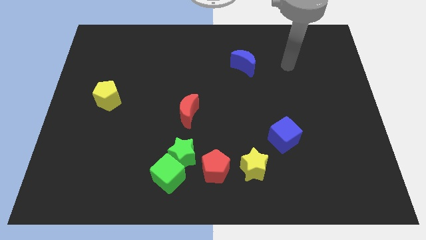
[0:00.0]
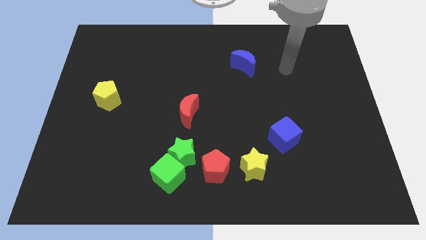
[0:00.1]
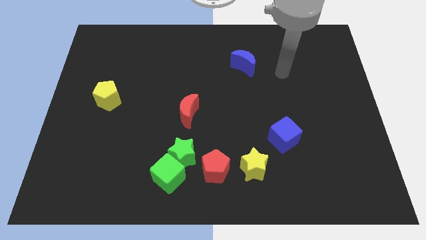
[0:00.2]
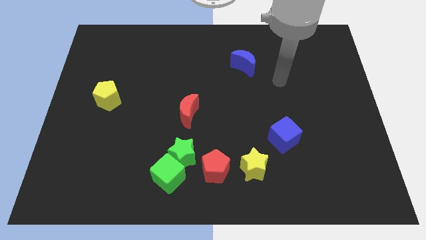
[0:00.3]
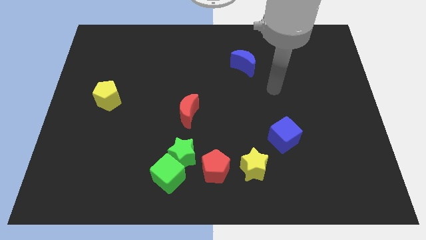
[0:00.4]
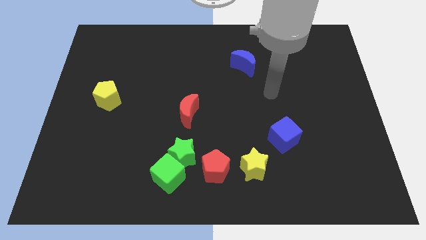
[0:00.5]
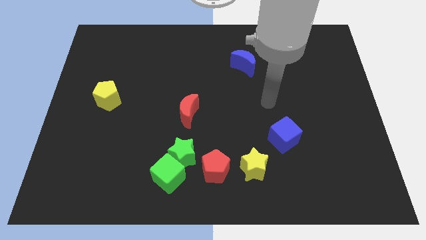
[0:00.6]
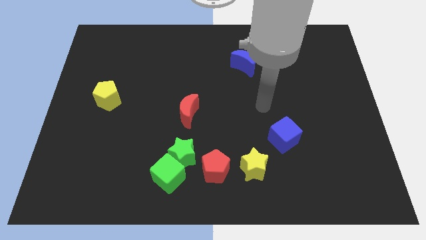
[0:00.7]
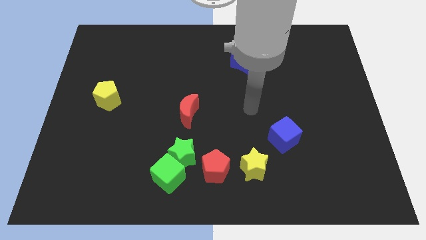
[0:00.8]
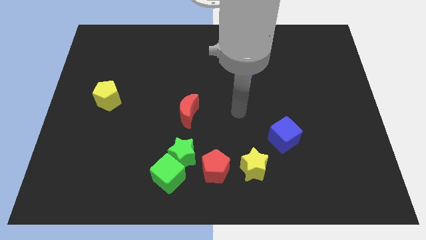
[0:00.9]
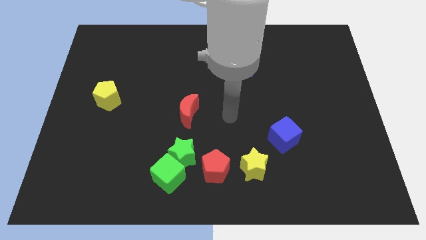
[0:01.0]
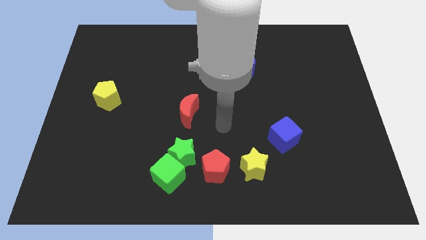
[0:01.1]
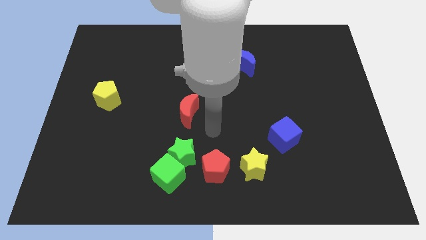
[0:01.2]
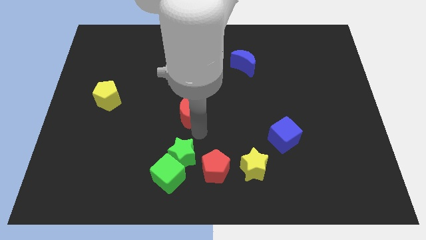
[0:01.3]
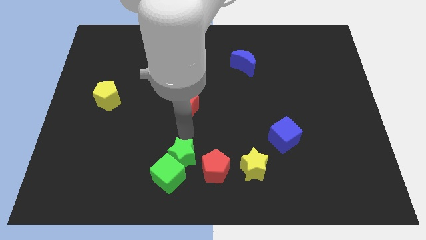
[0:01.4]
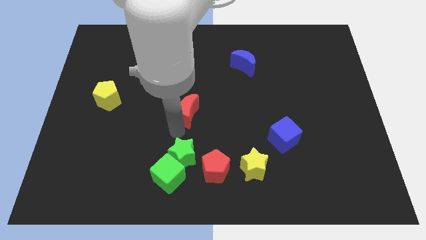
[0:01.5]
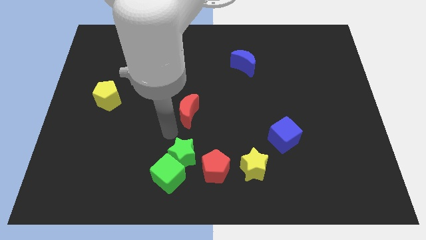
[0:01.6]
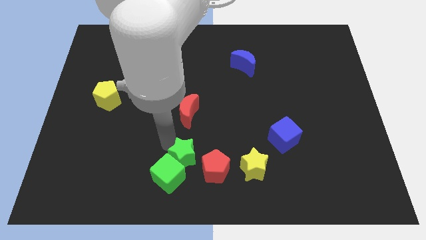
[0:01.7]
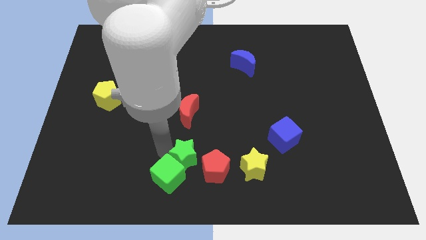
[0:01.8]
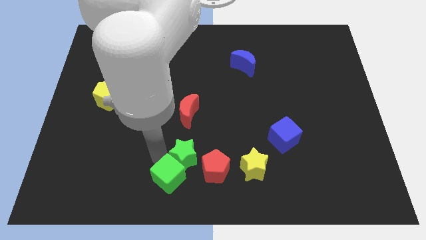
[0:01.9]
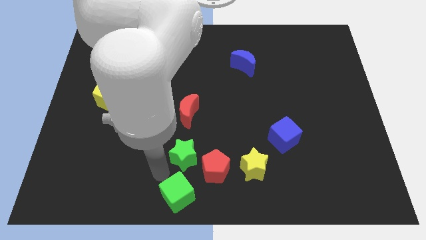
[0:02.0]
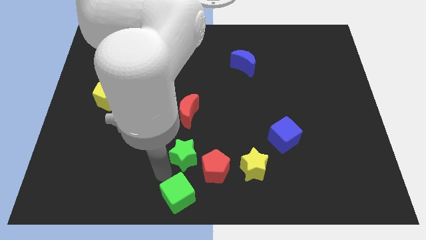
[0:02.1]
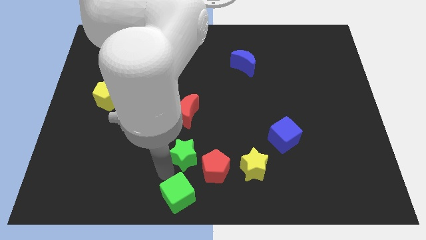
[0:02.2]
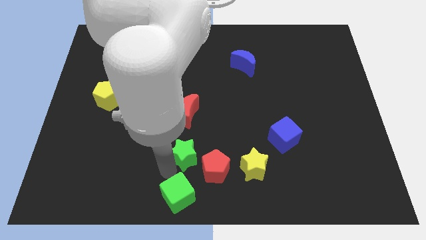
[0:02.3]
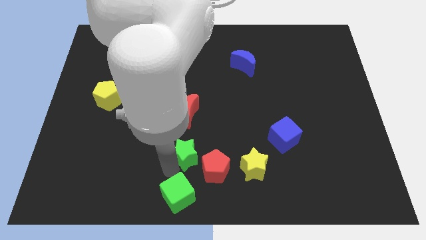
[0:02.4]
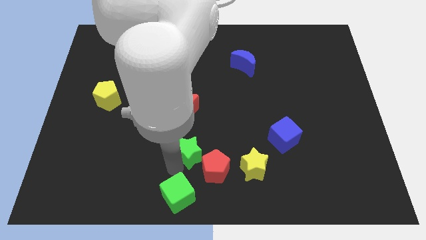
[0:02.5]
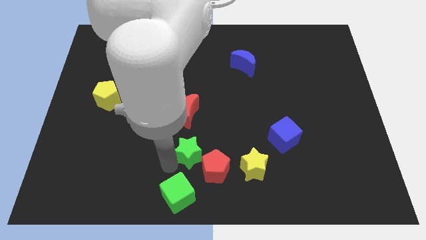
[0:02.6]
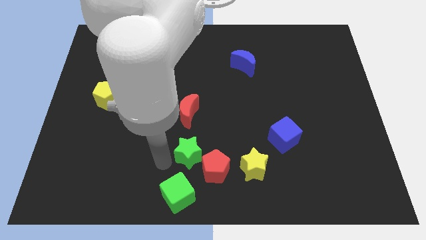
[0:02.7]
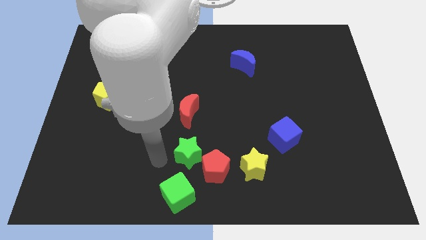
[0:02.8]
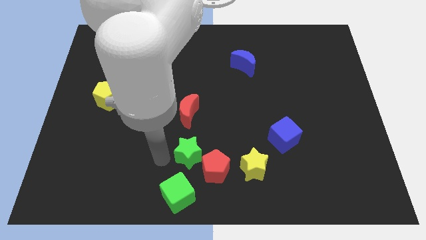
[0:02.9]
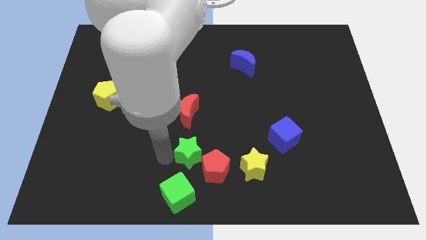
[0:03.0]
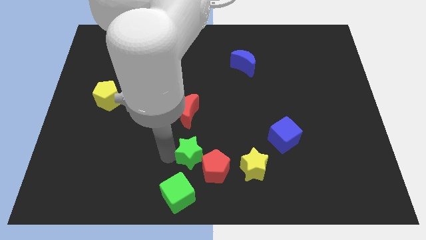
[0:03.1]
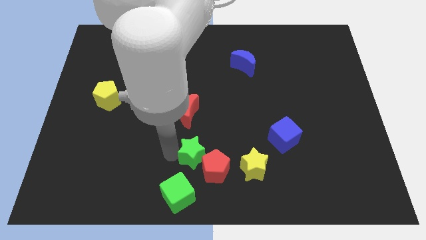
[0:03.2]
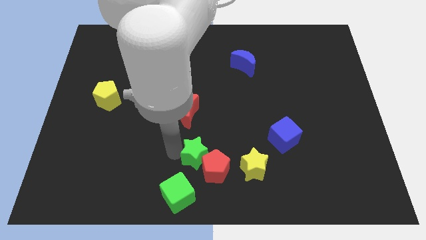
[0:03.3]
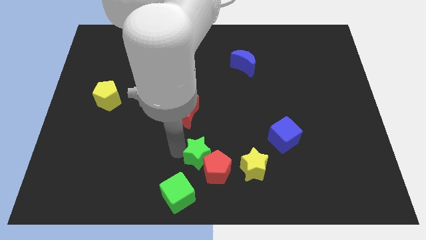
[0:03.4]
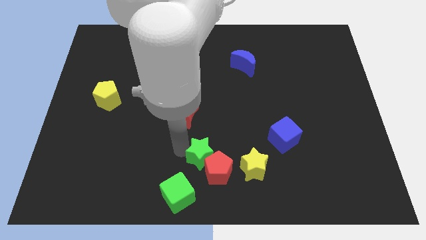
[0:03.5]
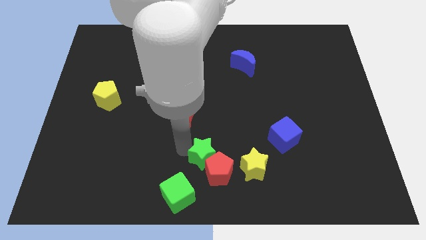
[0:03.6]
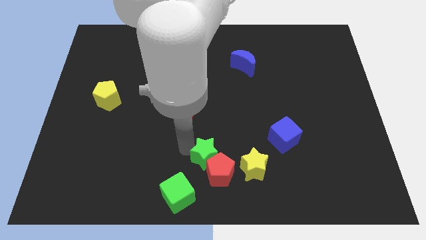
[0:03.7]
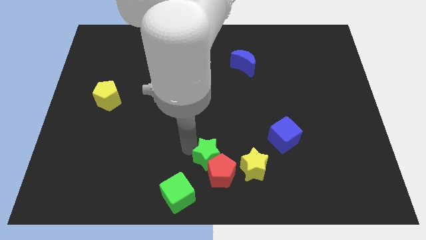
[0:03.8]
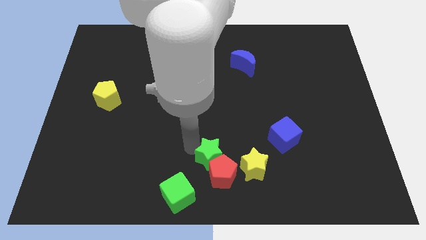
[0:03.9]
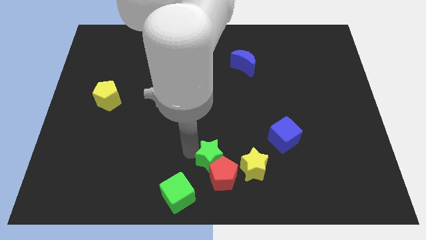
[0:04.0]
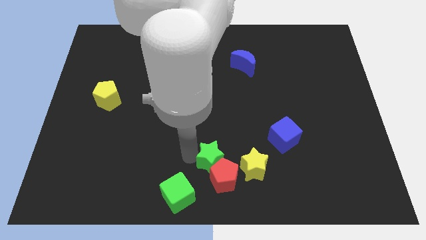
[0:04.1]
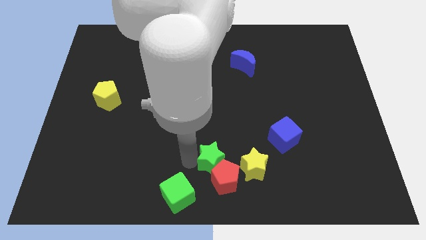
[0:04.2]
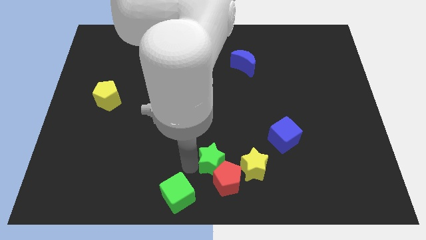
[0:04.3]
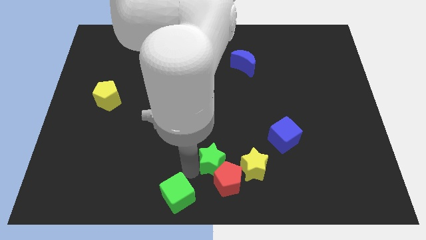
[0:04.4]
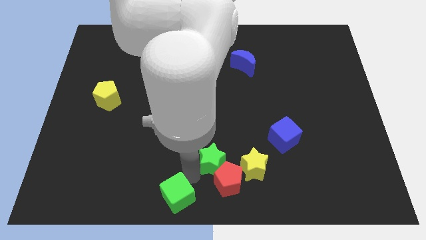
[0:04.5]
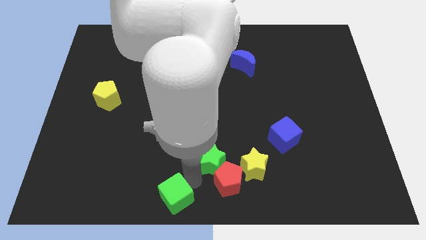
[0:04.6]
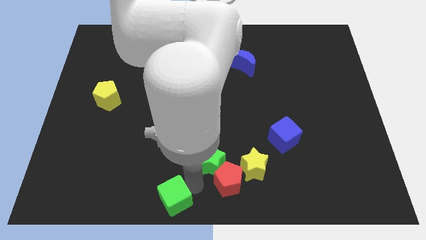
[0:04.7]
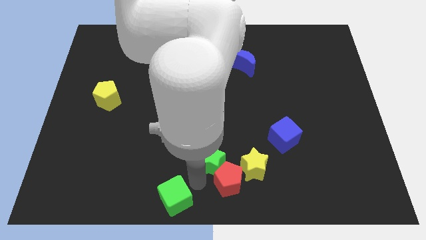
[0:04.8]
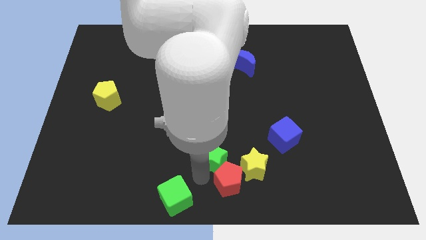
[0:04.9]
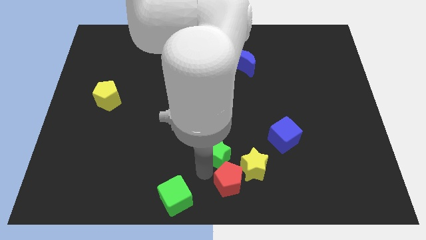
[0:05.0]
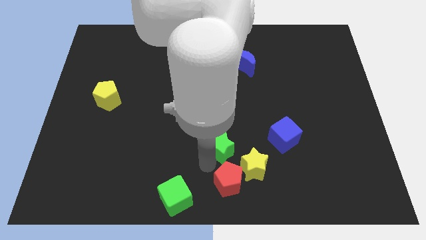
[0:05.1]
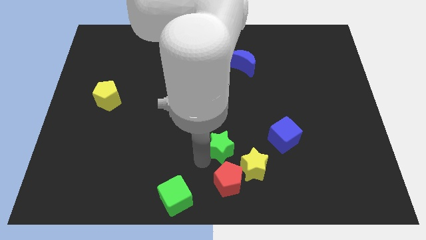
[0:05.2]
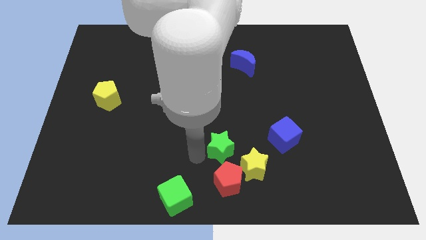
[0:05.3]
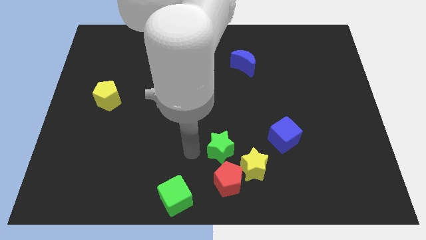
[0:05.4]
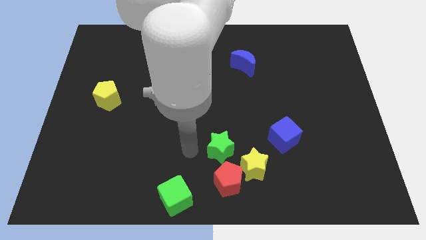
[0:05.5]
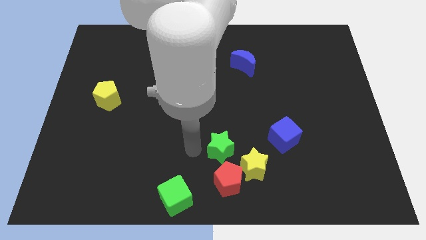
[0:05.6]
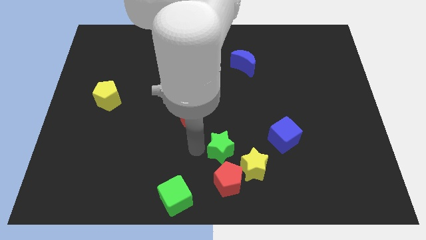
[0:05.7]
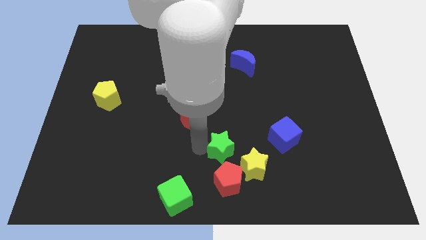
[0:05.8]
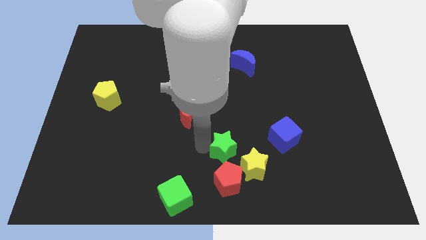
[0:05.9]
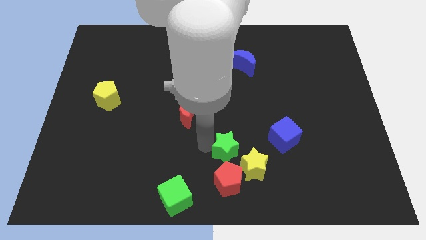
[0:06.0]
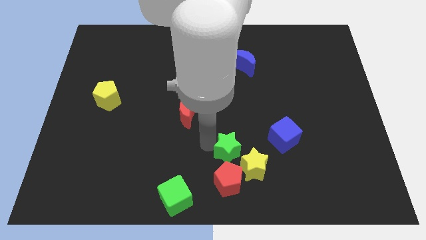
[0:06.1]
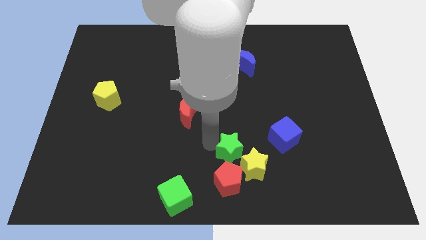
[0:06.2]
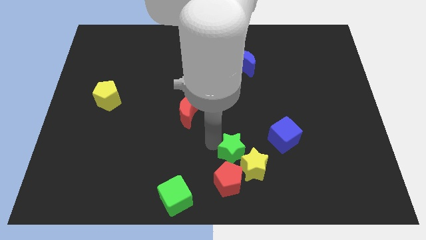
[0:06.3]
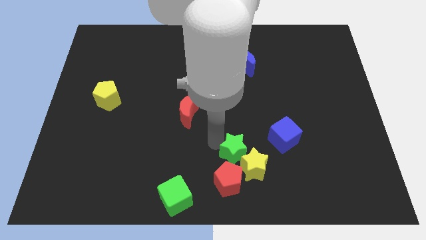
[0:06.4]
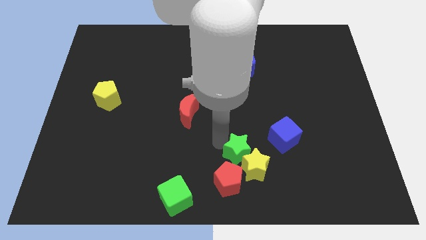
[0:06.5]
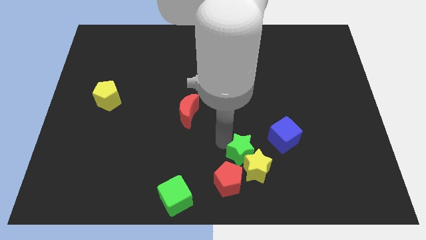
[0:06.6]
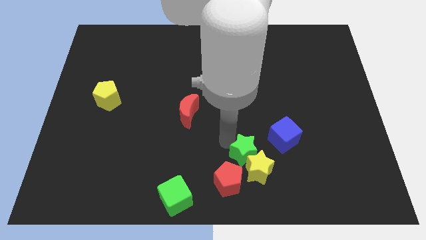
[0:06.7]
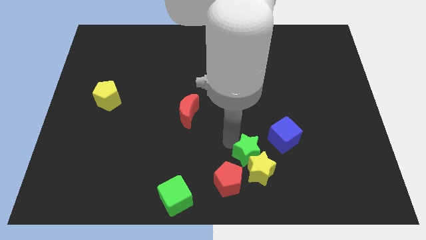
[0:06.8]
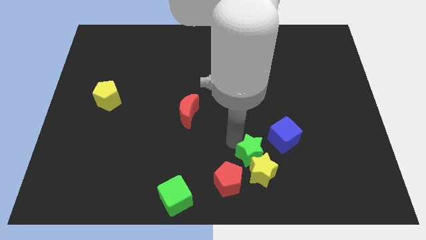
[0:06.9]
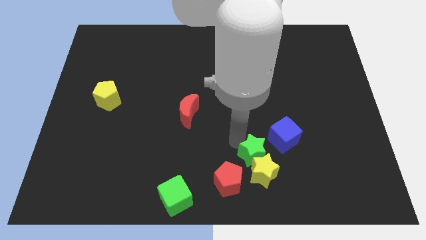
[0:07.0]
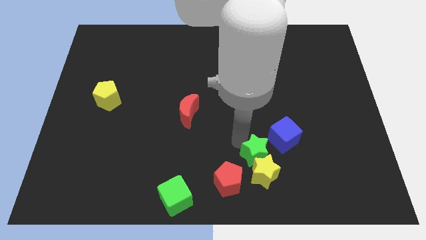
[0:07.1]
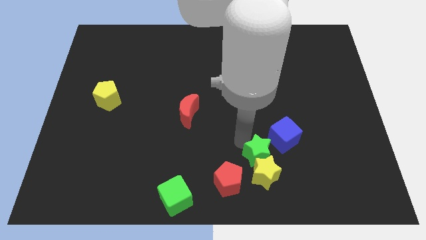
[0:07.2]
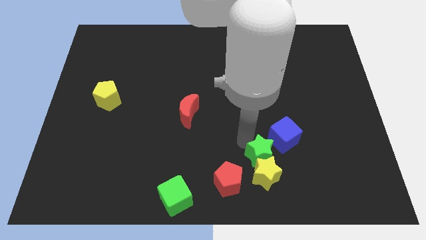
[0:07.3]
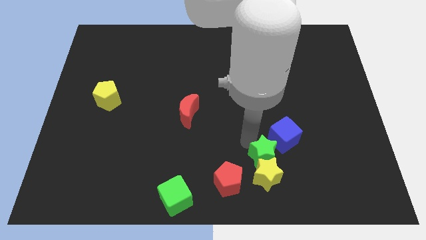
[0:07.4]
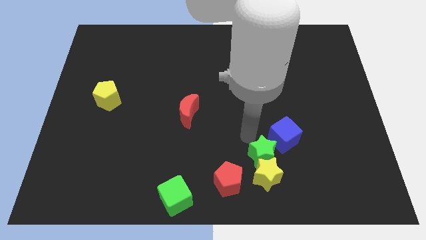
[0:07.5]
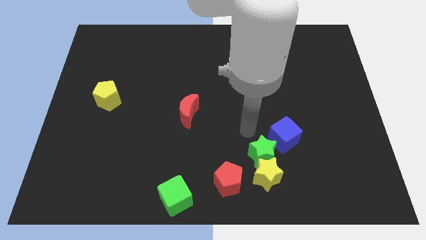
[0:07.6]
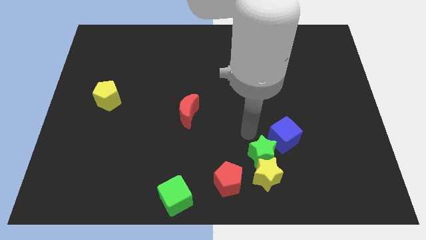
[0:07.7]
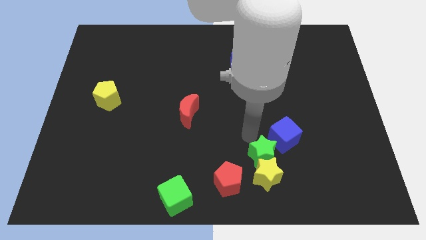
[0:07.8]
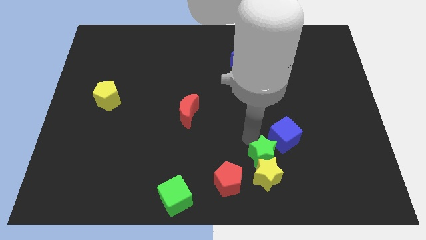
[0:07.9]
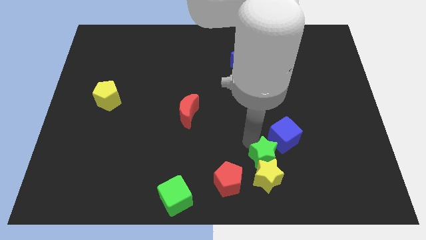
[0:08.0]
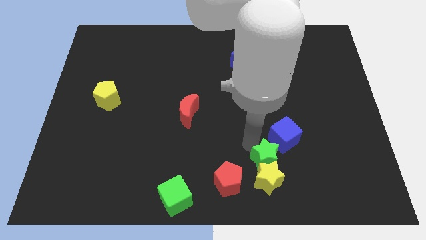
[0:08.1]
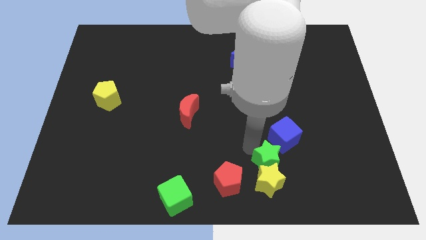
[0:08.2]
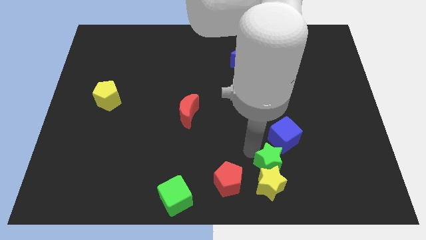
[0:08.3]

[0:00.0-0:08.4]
slide the green star just right of the red pentagon
